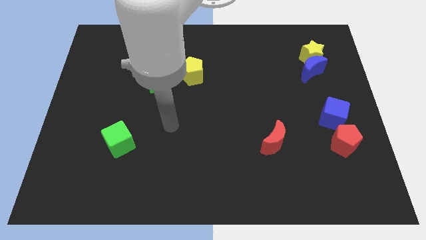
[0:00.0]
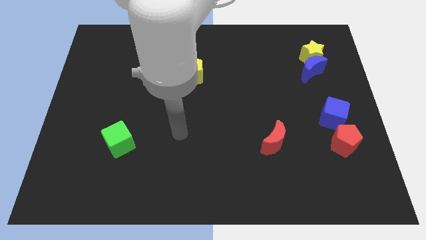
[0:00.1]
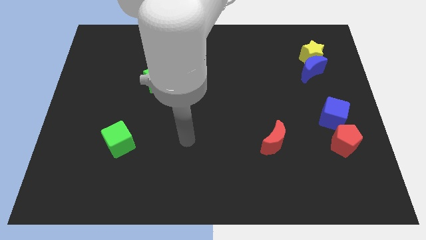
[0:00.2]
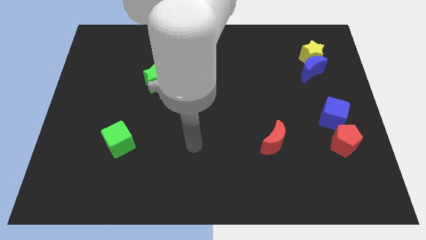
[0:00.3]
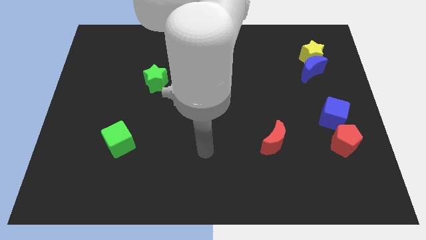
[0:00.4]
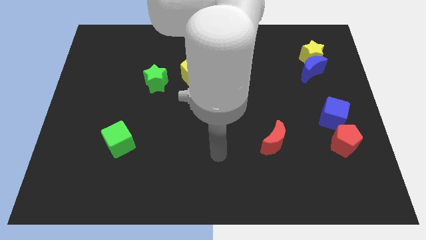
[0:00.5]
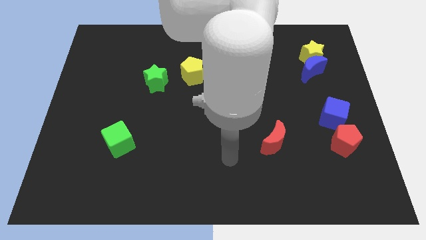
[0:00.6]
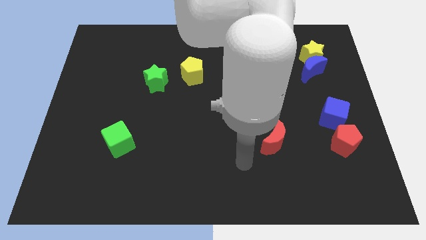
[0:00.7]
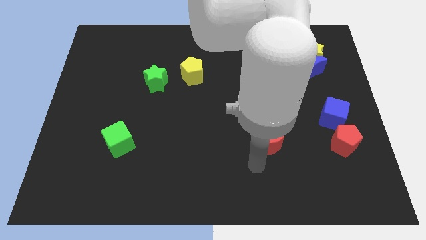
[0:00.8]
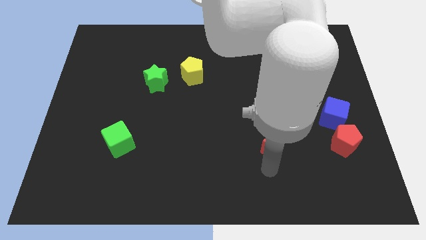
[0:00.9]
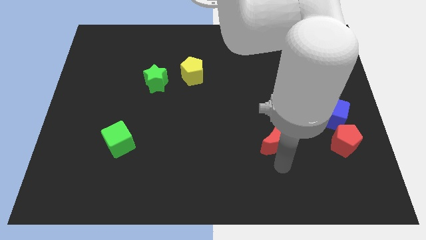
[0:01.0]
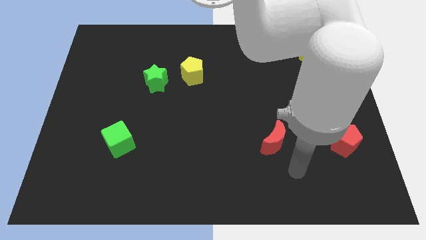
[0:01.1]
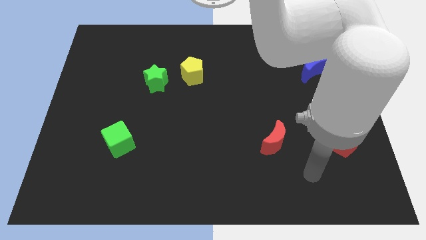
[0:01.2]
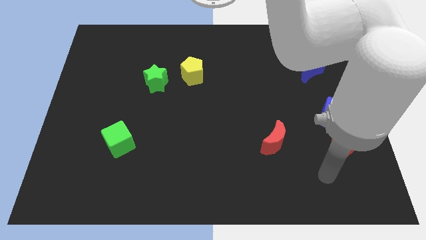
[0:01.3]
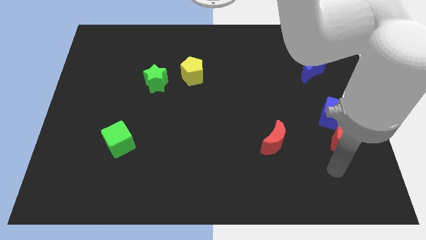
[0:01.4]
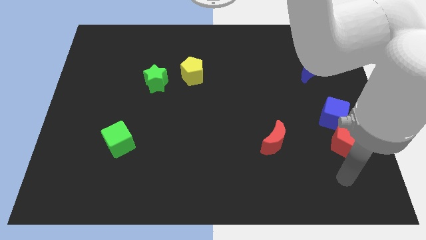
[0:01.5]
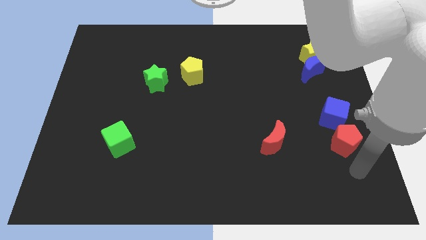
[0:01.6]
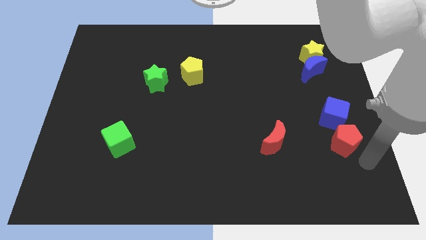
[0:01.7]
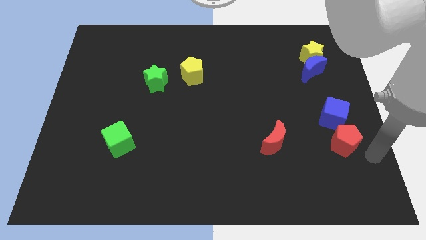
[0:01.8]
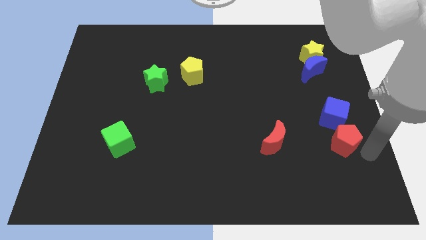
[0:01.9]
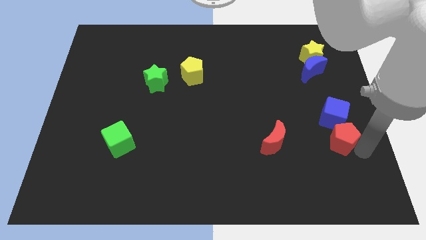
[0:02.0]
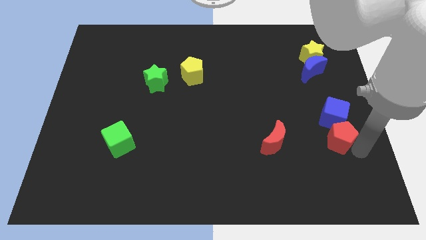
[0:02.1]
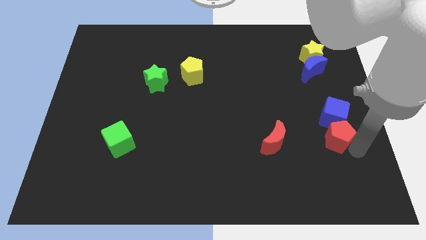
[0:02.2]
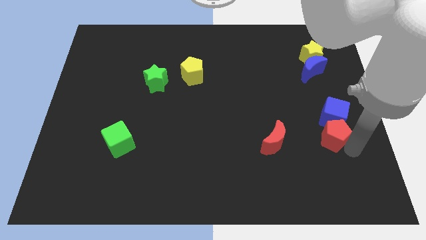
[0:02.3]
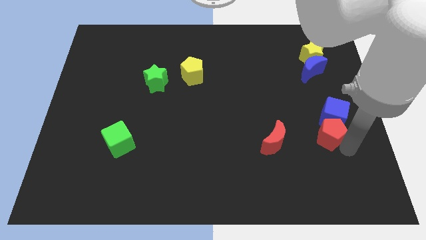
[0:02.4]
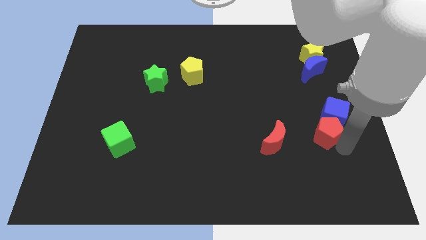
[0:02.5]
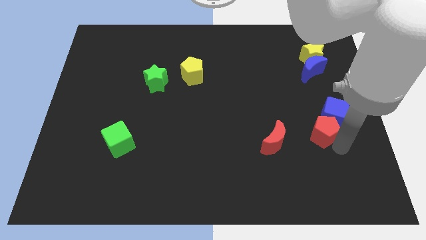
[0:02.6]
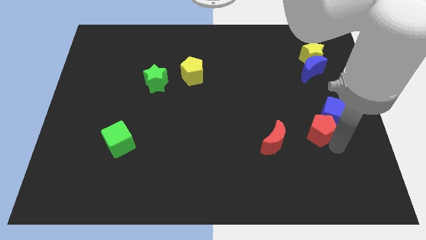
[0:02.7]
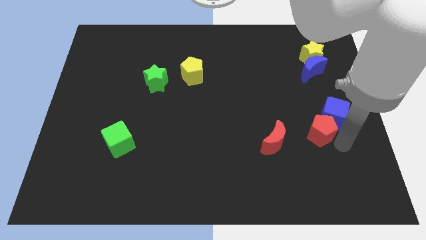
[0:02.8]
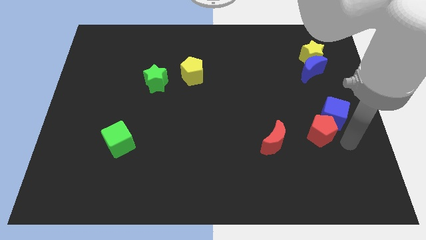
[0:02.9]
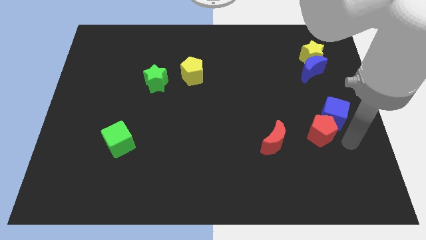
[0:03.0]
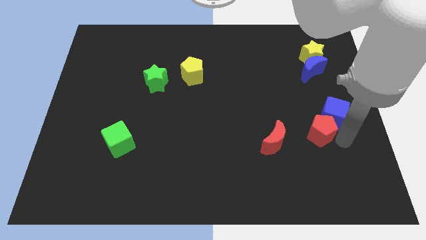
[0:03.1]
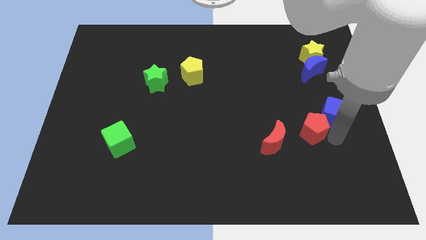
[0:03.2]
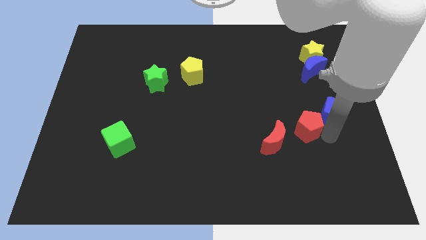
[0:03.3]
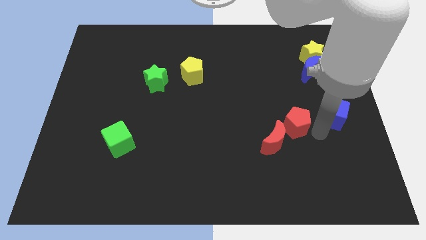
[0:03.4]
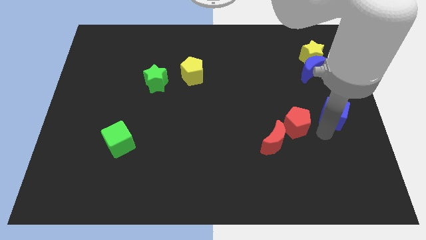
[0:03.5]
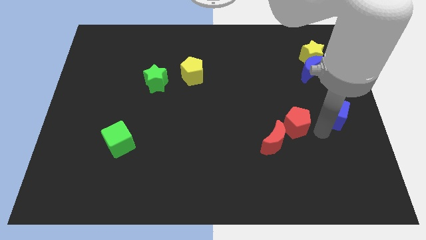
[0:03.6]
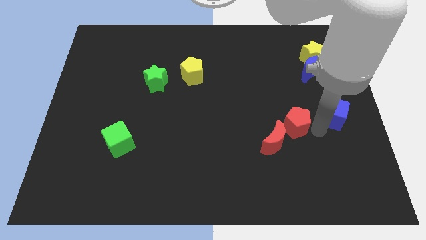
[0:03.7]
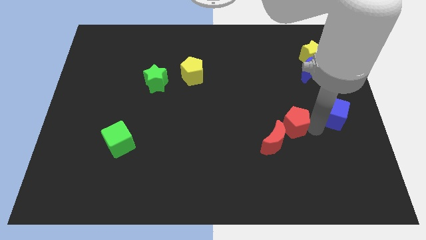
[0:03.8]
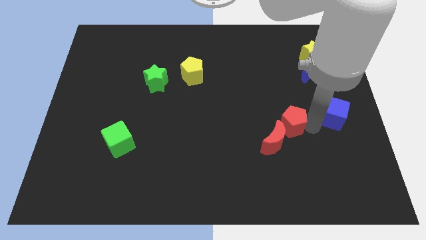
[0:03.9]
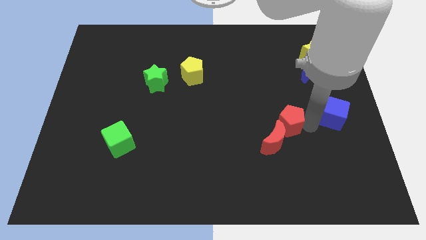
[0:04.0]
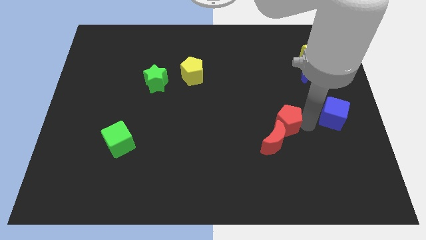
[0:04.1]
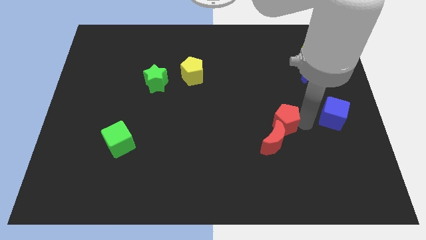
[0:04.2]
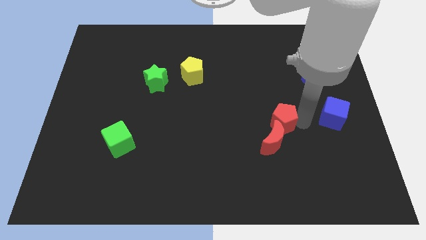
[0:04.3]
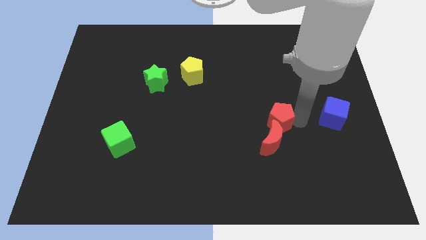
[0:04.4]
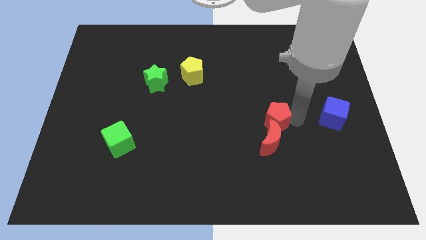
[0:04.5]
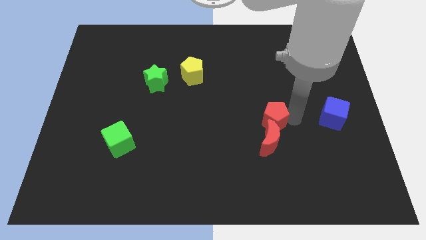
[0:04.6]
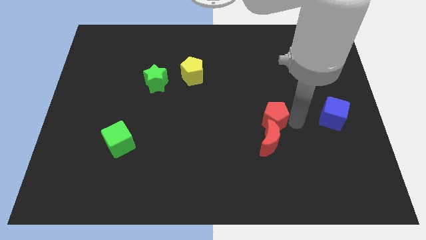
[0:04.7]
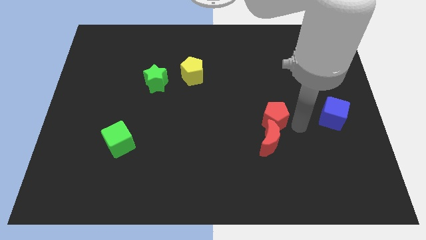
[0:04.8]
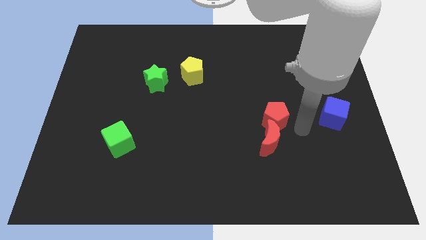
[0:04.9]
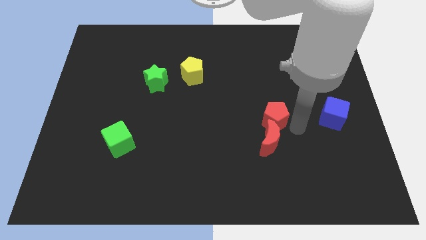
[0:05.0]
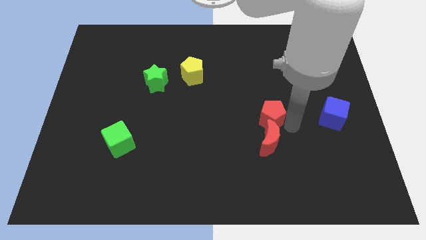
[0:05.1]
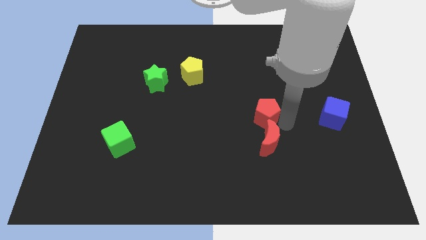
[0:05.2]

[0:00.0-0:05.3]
slide the red pentagon to the middle of the board

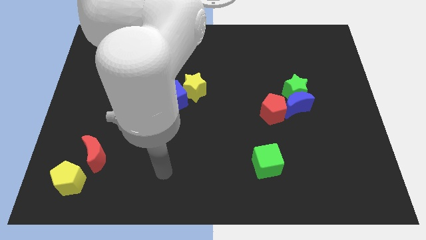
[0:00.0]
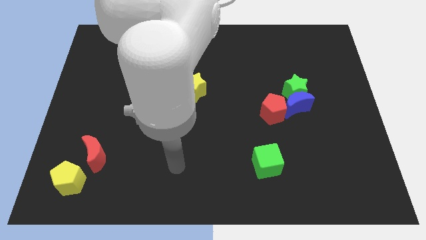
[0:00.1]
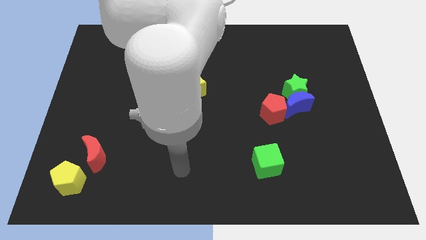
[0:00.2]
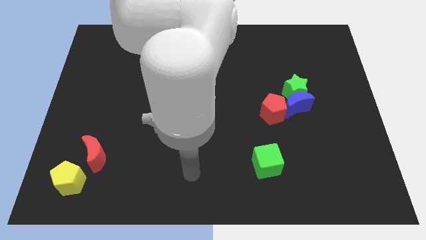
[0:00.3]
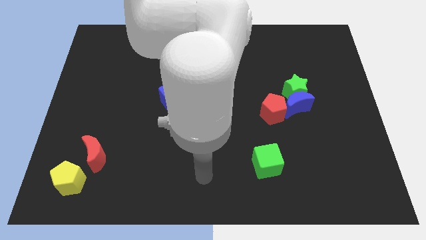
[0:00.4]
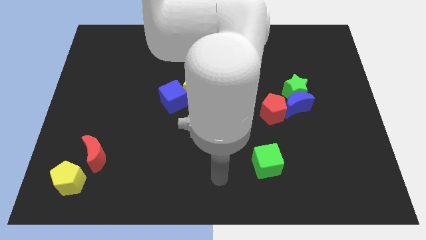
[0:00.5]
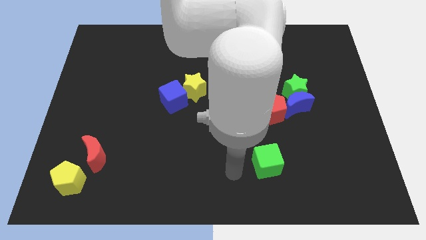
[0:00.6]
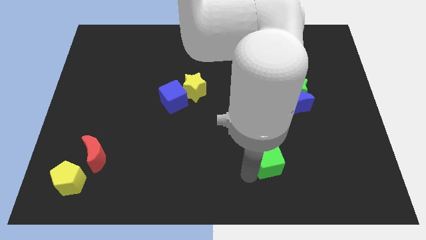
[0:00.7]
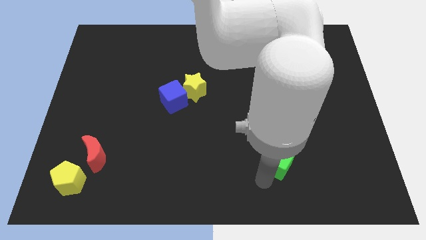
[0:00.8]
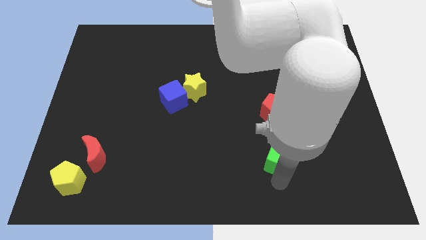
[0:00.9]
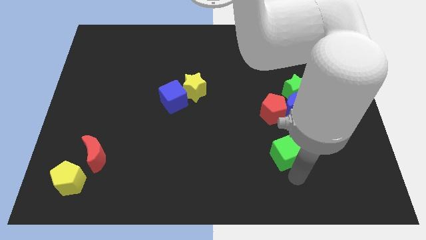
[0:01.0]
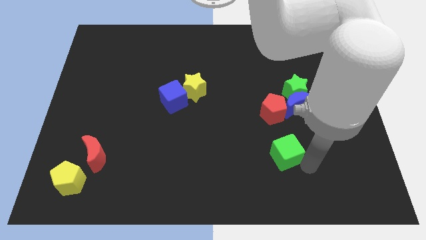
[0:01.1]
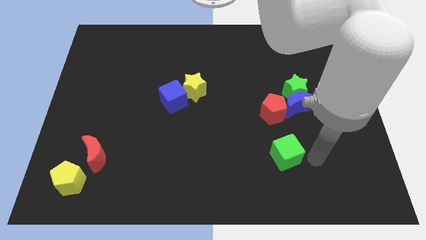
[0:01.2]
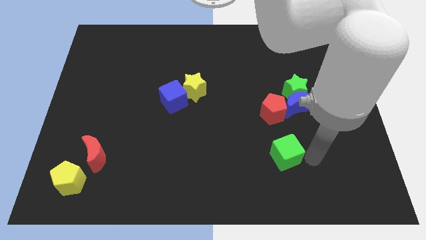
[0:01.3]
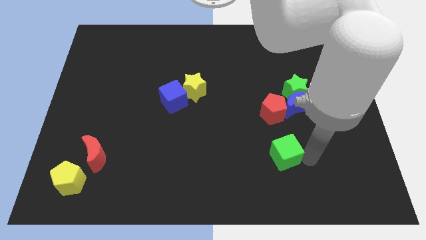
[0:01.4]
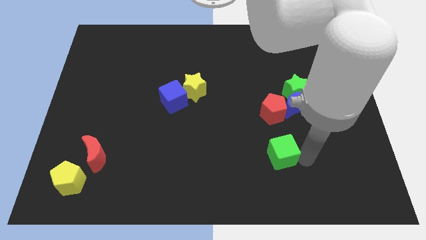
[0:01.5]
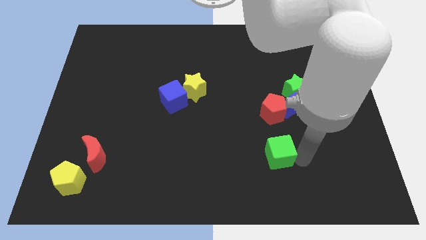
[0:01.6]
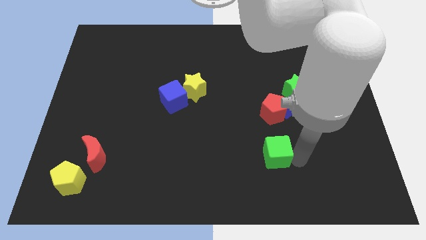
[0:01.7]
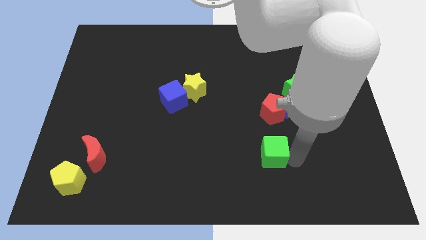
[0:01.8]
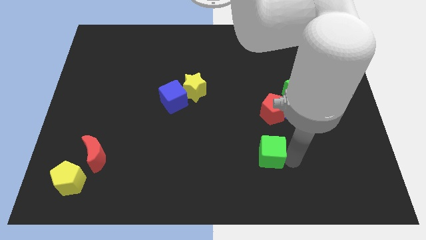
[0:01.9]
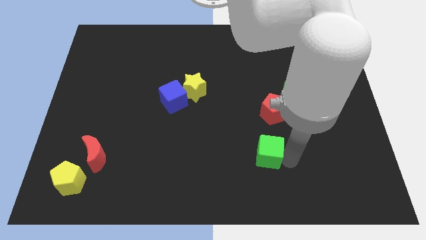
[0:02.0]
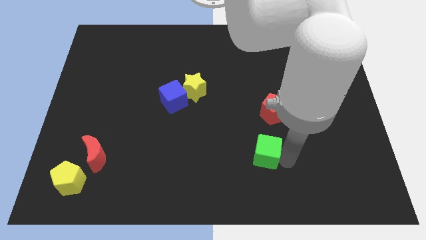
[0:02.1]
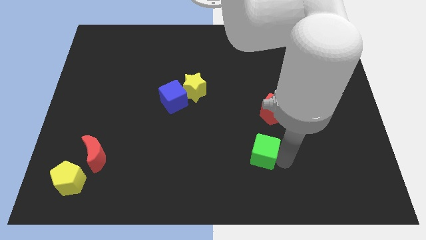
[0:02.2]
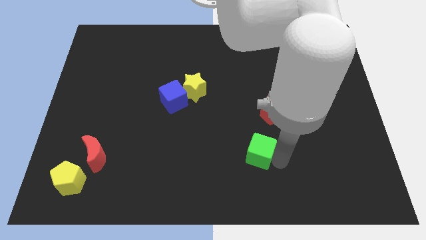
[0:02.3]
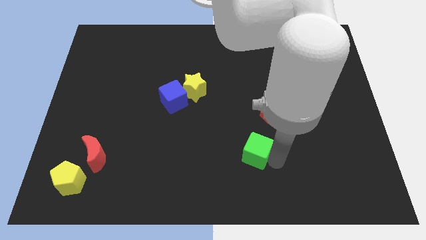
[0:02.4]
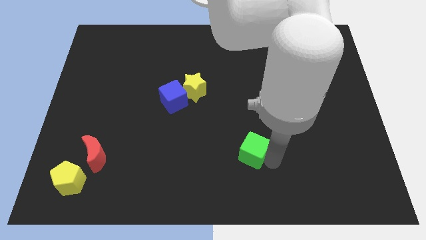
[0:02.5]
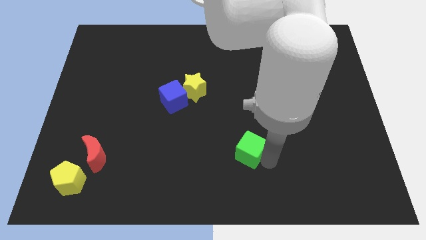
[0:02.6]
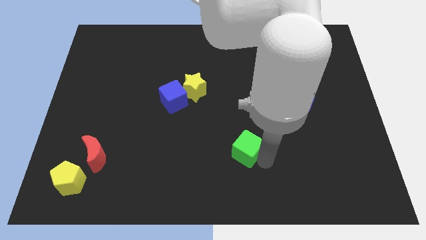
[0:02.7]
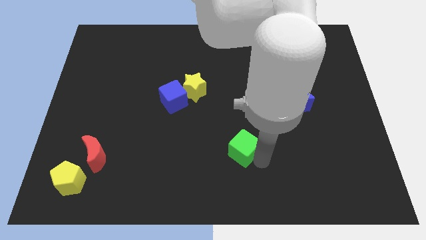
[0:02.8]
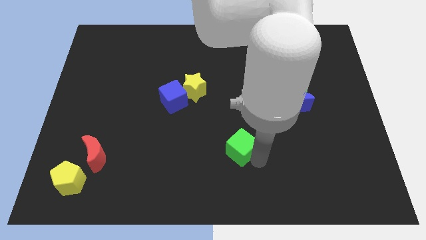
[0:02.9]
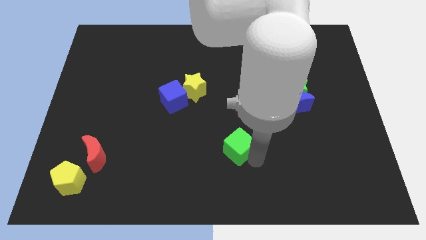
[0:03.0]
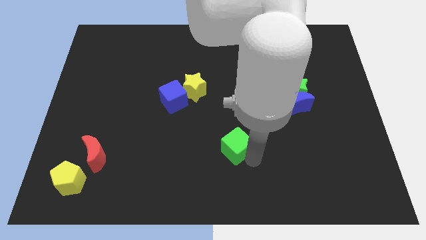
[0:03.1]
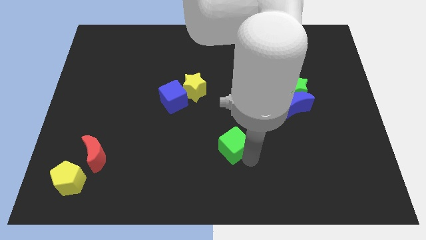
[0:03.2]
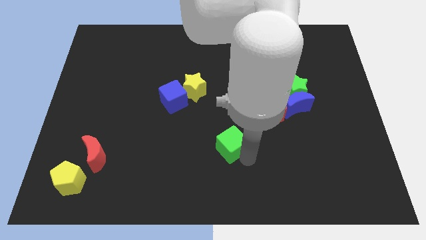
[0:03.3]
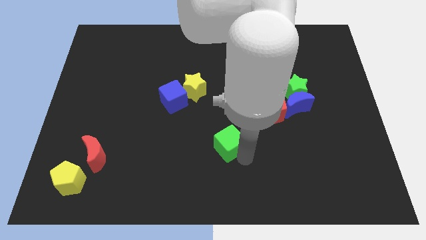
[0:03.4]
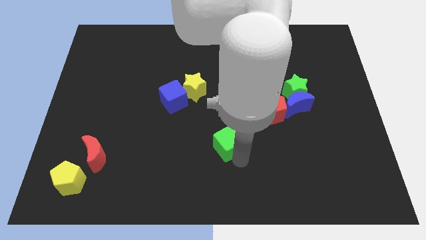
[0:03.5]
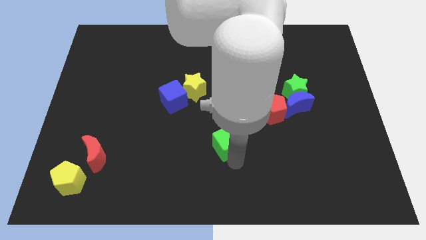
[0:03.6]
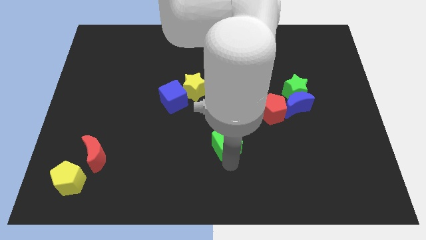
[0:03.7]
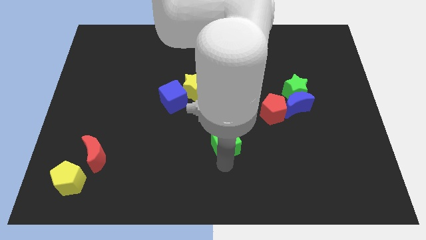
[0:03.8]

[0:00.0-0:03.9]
move the green cube to the middle of the board
